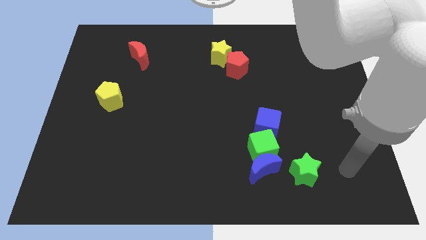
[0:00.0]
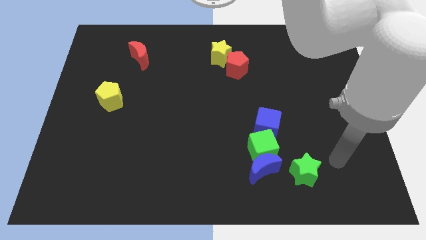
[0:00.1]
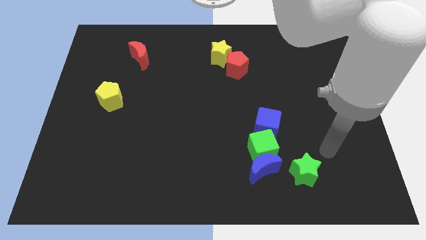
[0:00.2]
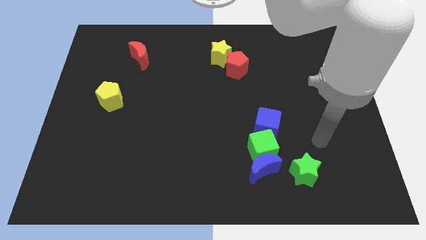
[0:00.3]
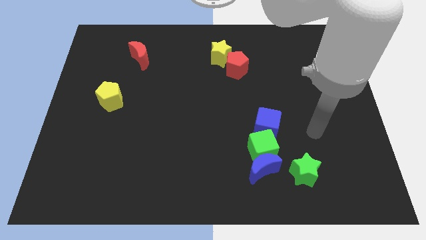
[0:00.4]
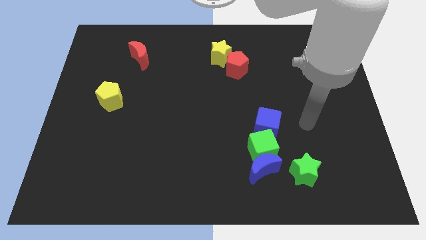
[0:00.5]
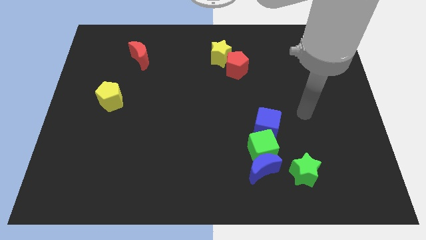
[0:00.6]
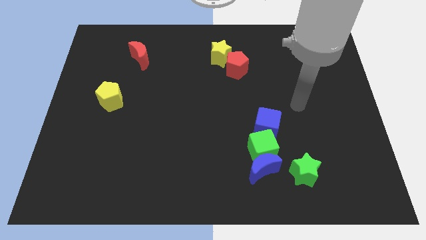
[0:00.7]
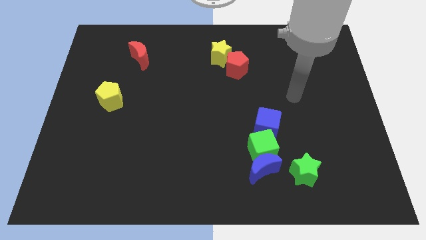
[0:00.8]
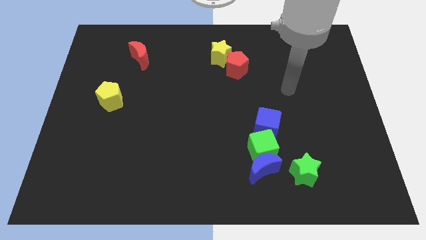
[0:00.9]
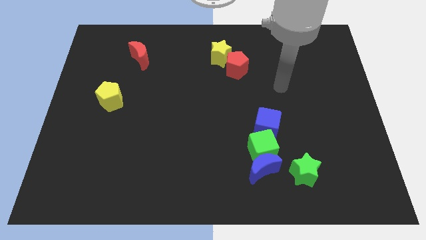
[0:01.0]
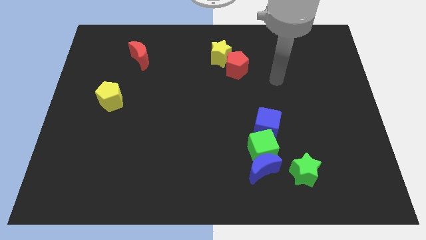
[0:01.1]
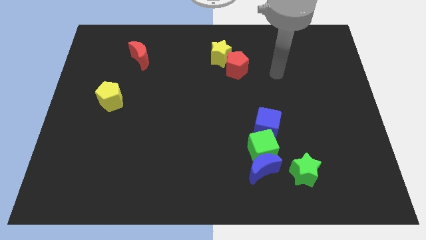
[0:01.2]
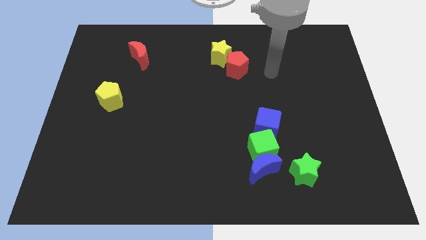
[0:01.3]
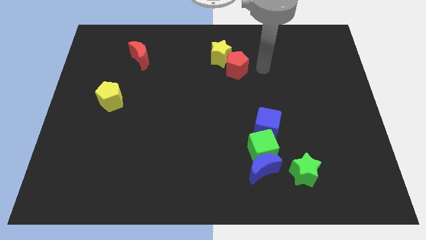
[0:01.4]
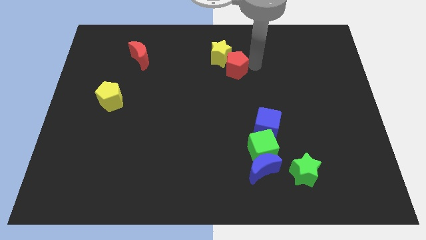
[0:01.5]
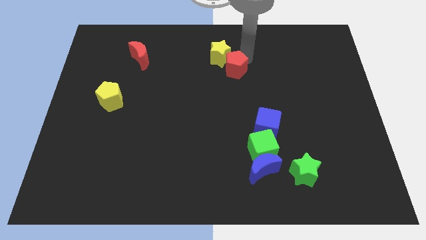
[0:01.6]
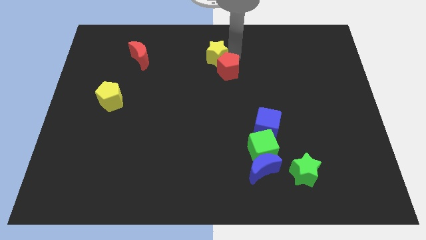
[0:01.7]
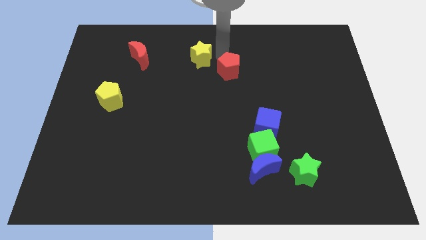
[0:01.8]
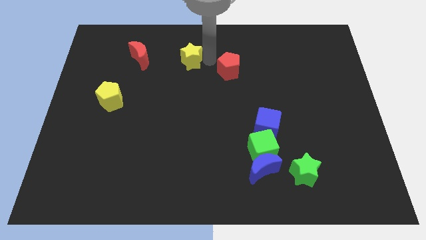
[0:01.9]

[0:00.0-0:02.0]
pull the red pentagon apart from the yellow star

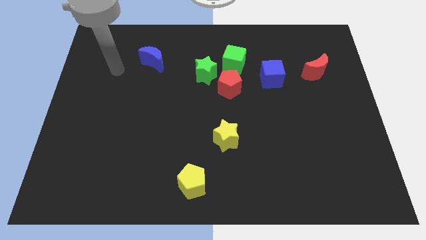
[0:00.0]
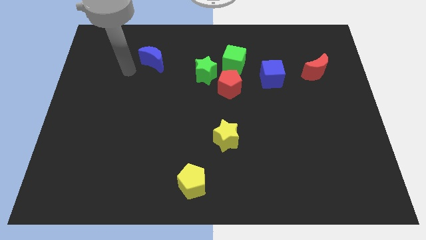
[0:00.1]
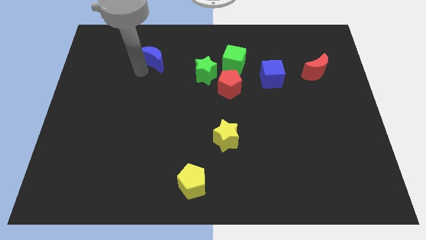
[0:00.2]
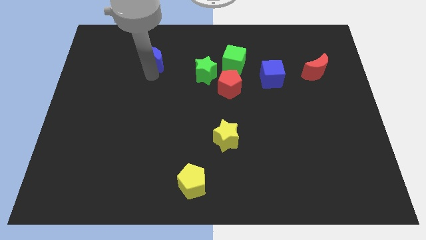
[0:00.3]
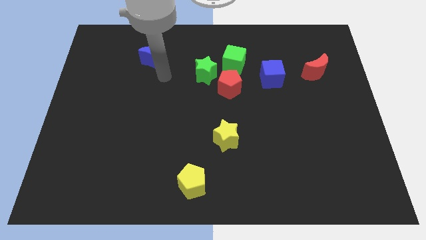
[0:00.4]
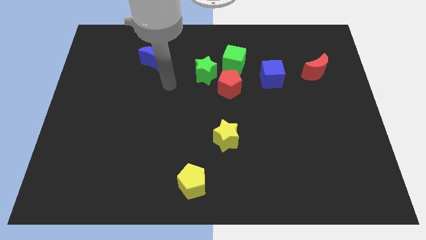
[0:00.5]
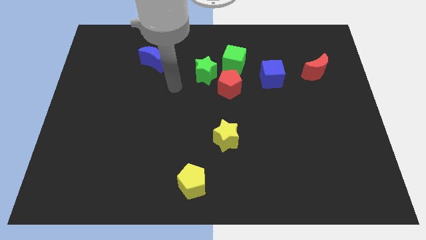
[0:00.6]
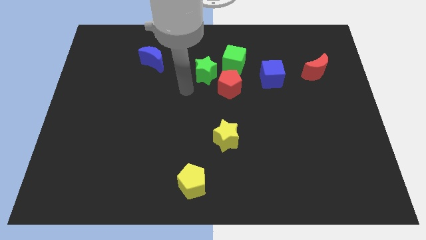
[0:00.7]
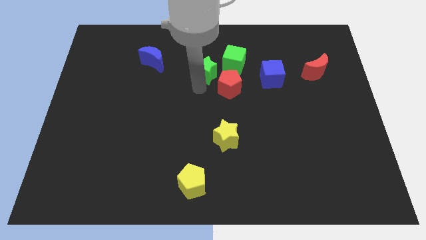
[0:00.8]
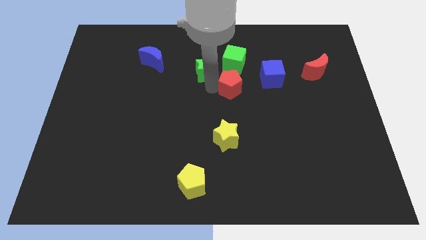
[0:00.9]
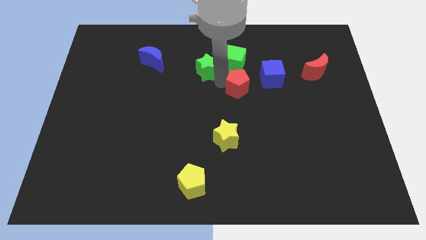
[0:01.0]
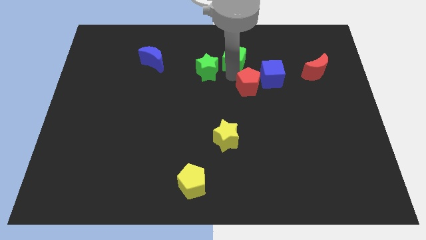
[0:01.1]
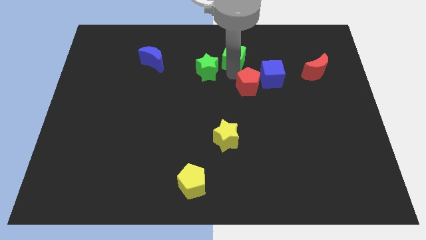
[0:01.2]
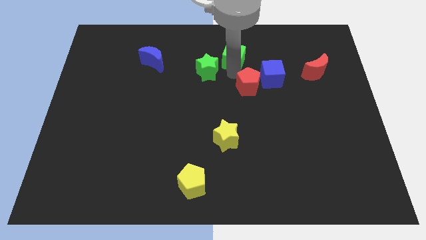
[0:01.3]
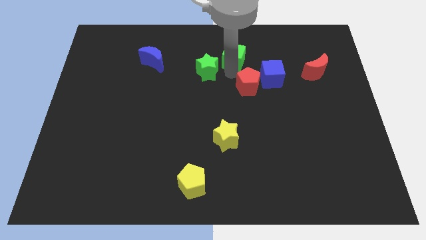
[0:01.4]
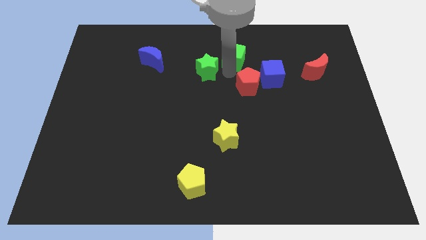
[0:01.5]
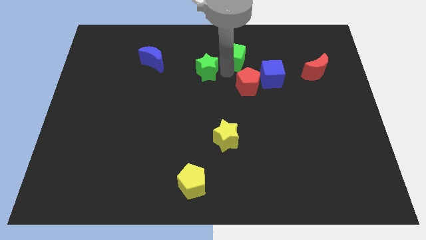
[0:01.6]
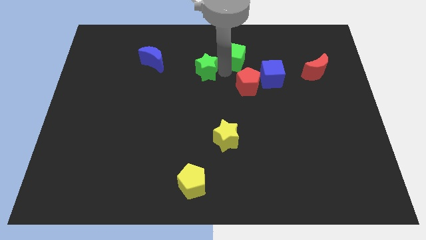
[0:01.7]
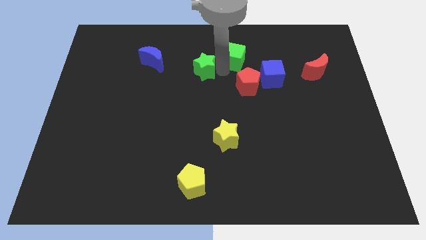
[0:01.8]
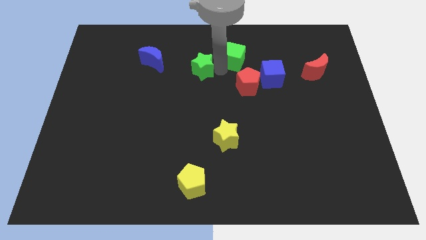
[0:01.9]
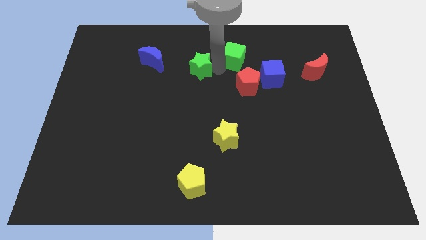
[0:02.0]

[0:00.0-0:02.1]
move the green star away from the red pentagon and green cube

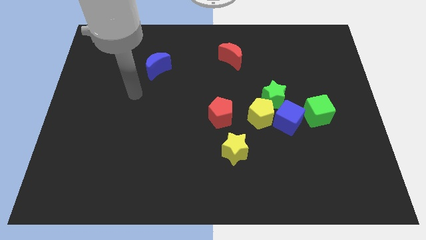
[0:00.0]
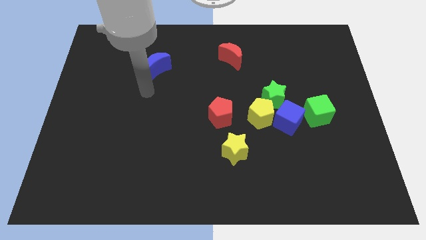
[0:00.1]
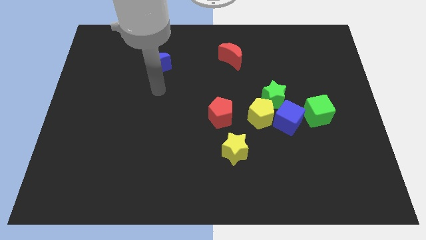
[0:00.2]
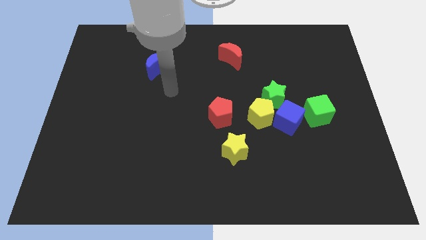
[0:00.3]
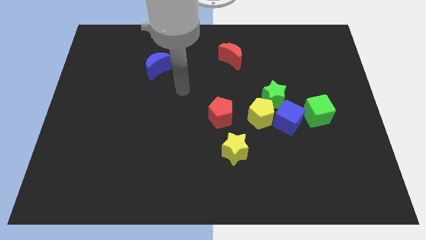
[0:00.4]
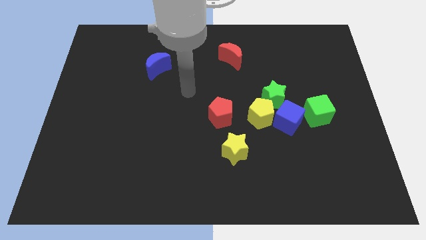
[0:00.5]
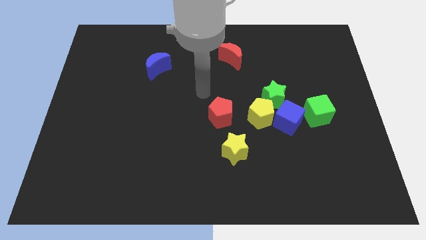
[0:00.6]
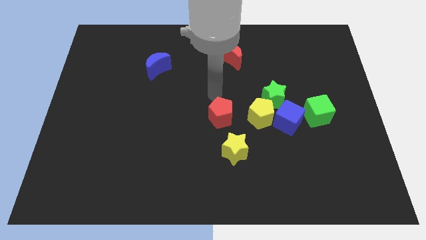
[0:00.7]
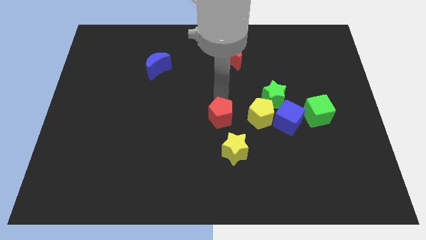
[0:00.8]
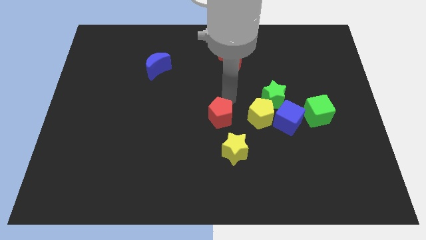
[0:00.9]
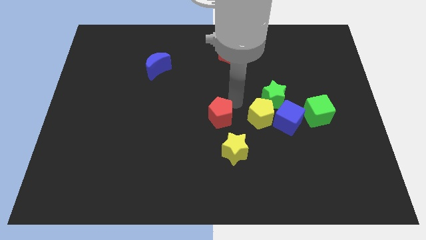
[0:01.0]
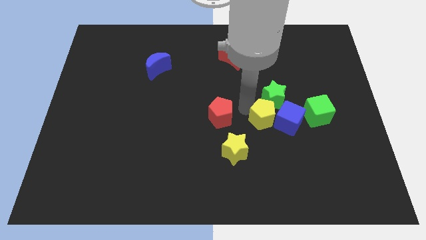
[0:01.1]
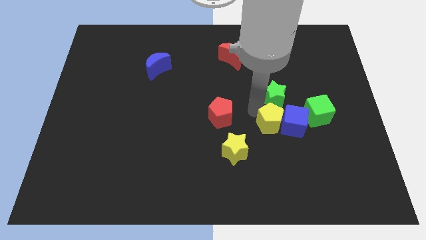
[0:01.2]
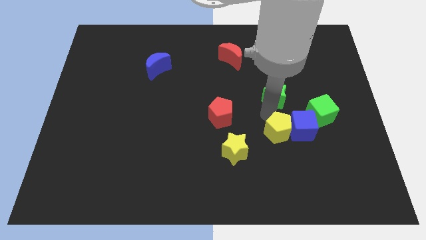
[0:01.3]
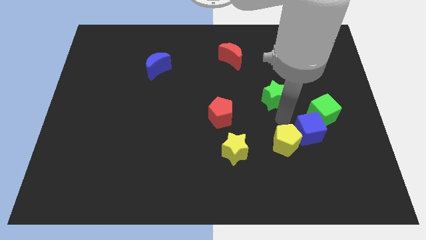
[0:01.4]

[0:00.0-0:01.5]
move the green star away from the yellow pentagon and blue cube

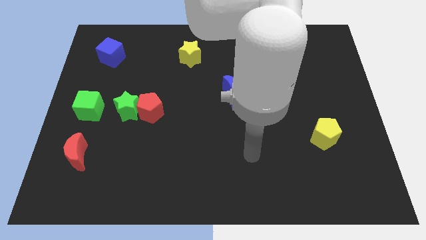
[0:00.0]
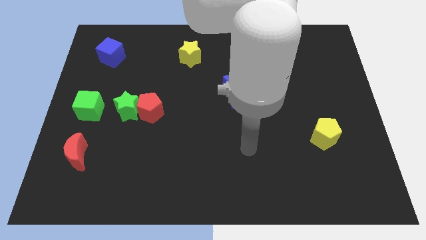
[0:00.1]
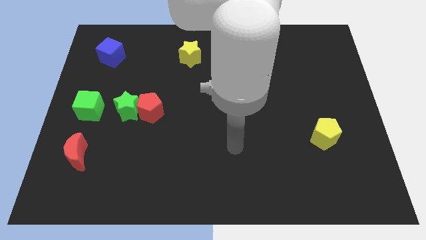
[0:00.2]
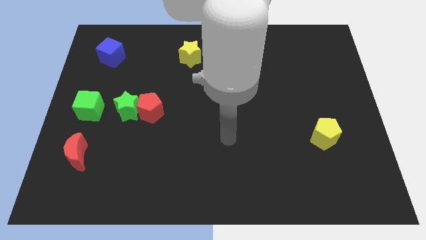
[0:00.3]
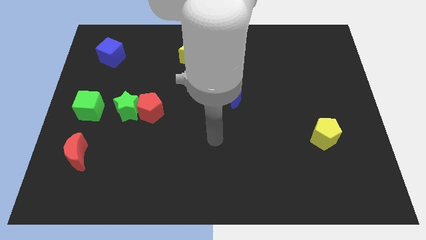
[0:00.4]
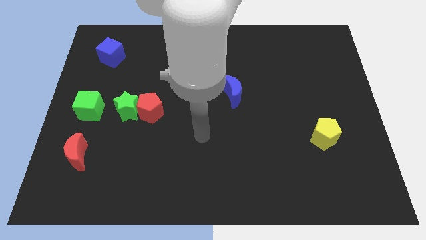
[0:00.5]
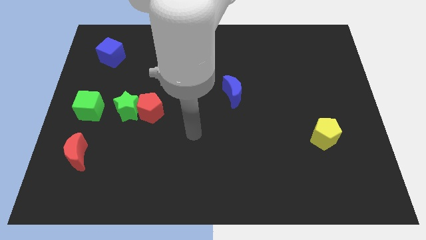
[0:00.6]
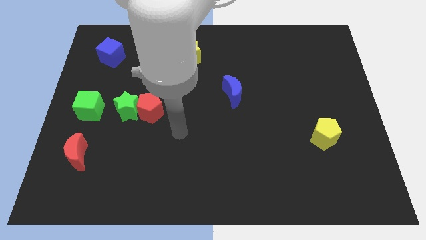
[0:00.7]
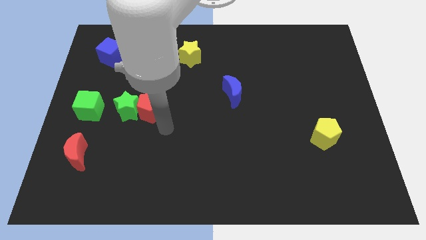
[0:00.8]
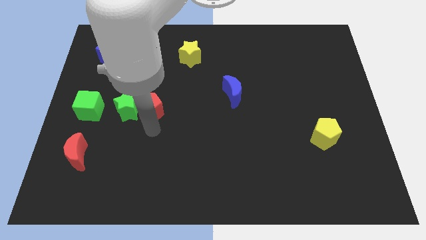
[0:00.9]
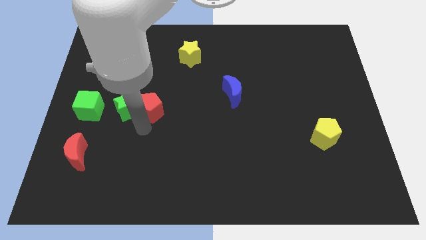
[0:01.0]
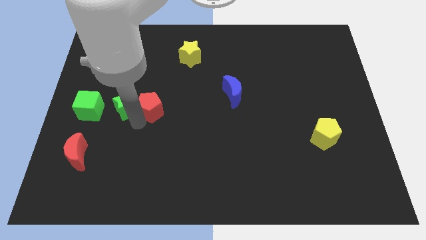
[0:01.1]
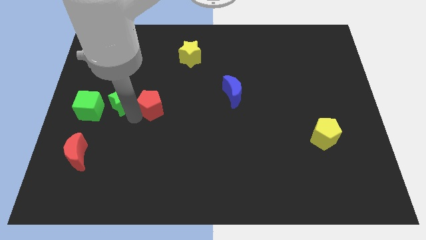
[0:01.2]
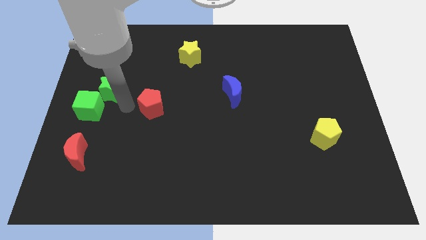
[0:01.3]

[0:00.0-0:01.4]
move the red pentagon away from the green star

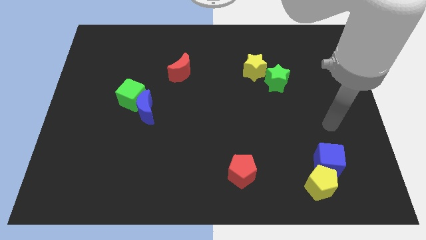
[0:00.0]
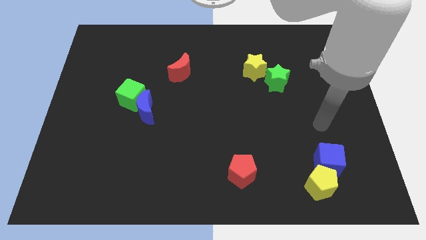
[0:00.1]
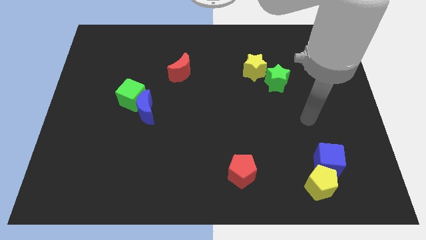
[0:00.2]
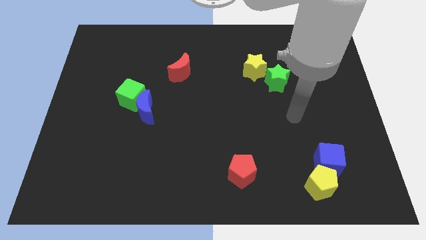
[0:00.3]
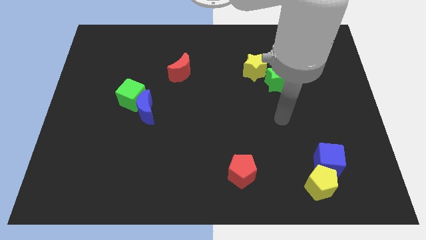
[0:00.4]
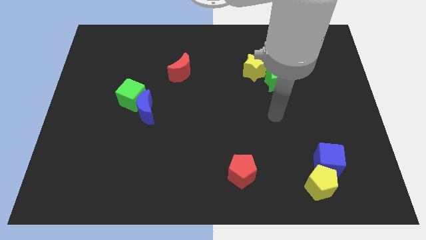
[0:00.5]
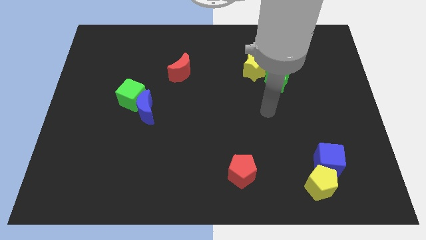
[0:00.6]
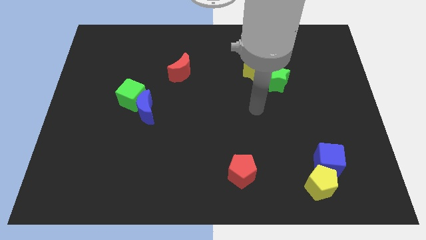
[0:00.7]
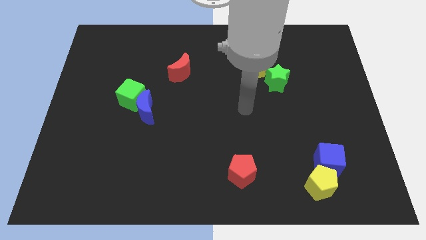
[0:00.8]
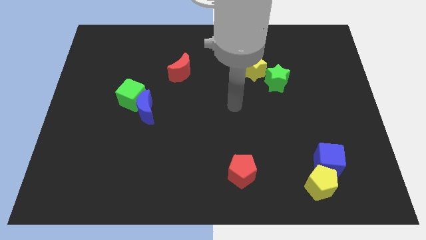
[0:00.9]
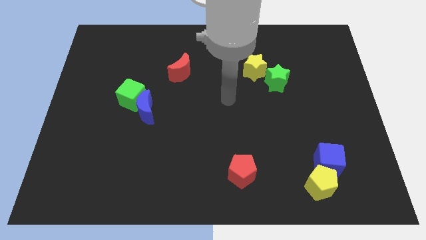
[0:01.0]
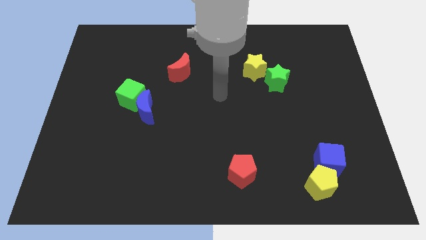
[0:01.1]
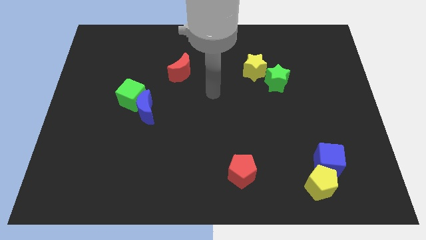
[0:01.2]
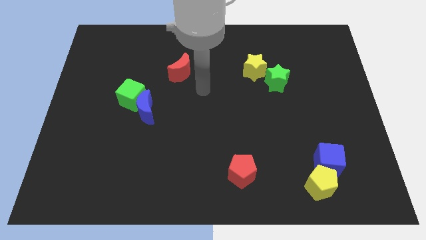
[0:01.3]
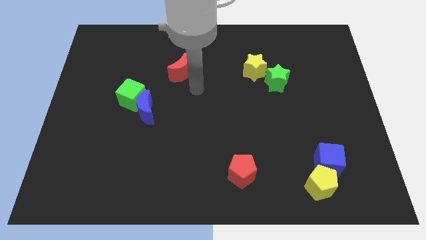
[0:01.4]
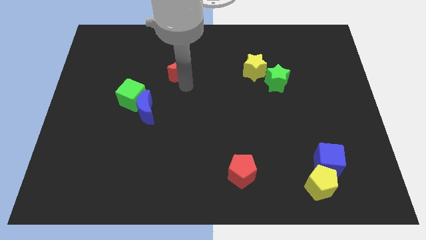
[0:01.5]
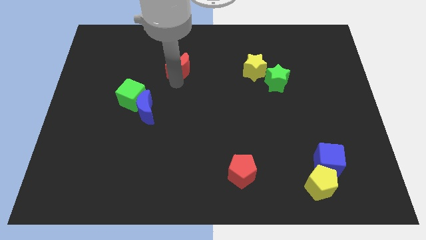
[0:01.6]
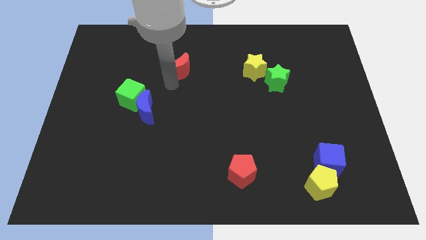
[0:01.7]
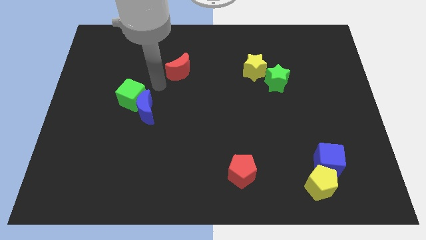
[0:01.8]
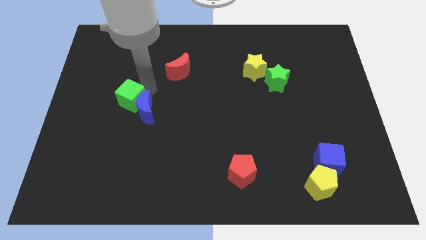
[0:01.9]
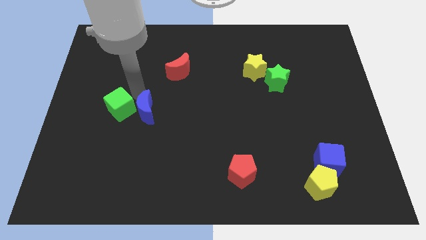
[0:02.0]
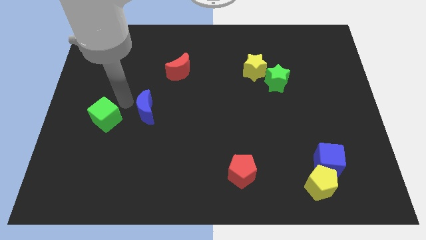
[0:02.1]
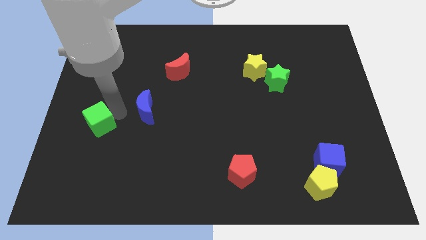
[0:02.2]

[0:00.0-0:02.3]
pull the blue moon apart from the green cube
